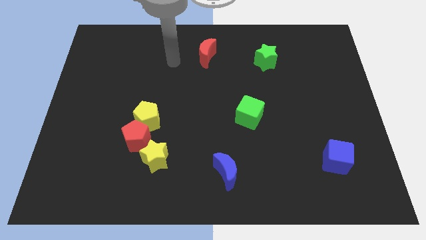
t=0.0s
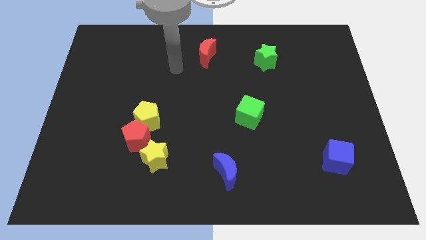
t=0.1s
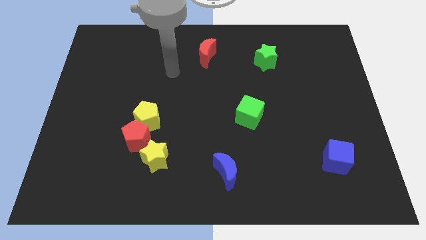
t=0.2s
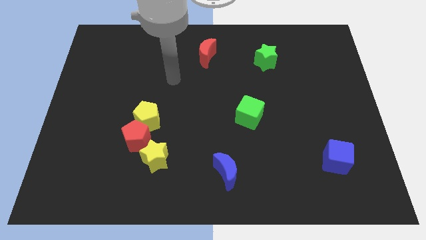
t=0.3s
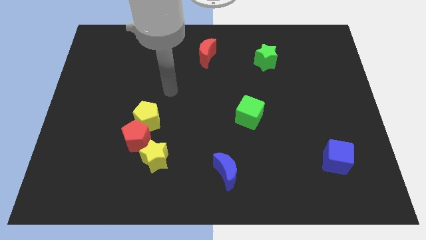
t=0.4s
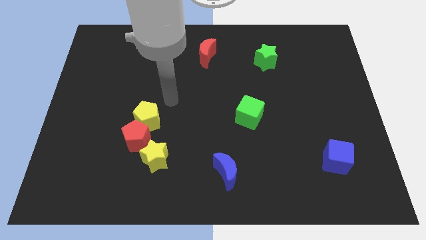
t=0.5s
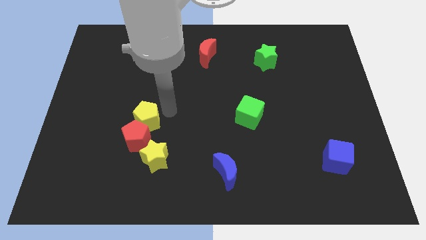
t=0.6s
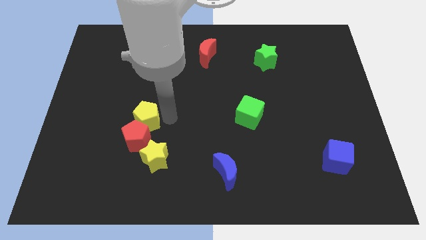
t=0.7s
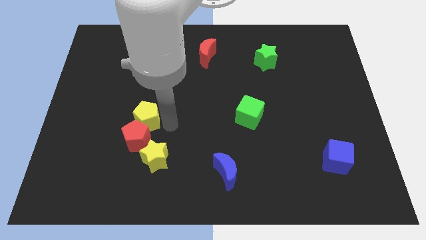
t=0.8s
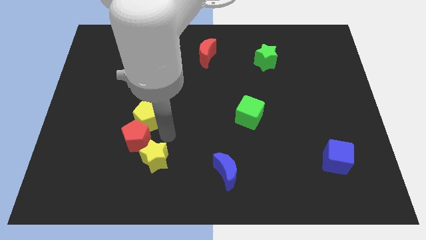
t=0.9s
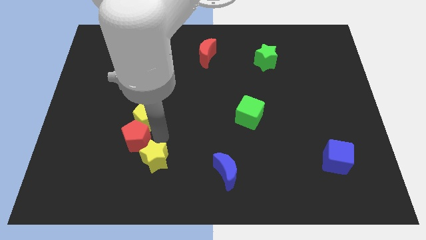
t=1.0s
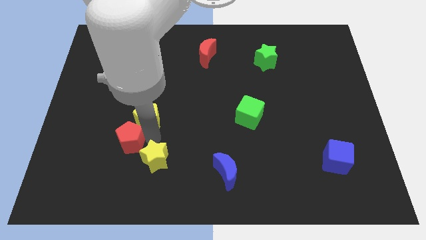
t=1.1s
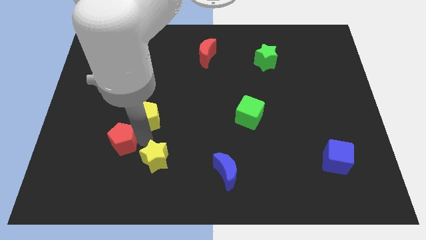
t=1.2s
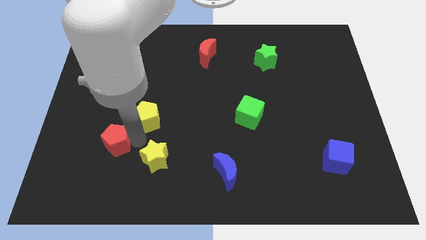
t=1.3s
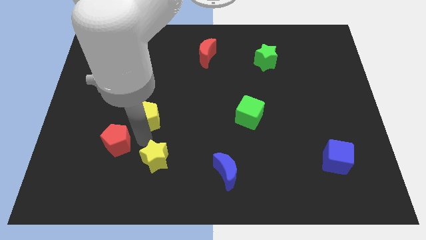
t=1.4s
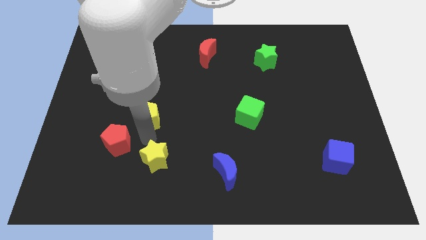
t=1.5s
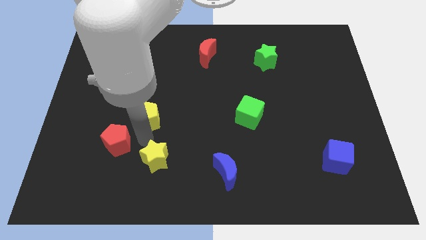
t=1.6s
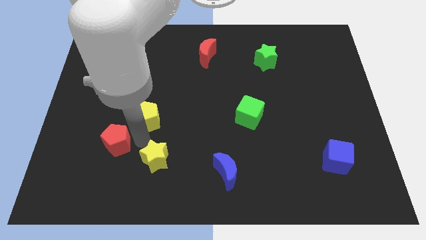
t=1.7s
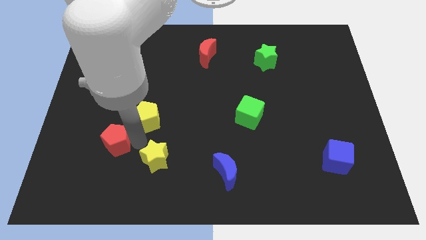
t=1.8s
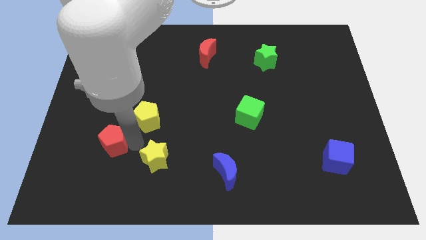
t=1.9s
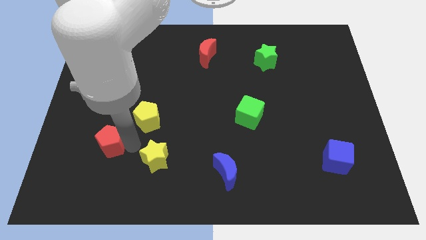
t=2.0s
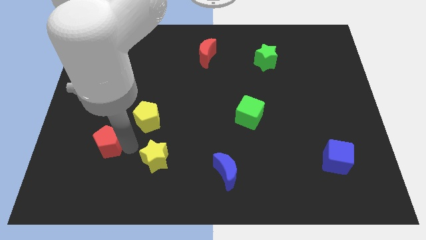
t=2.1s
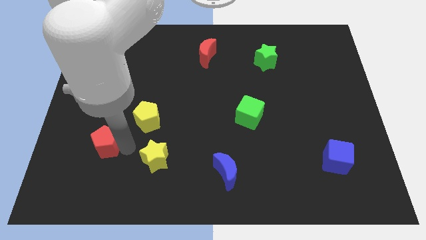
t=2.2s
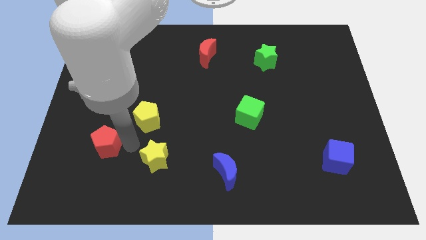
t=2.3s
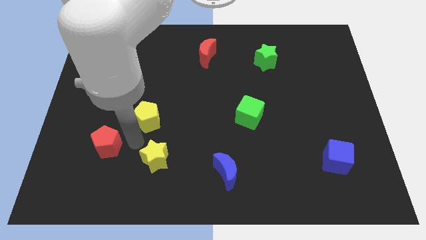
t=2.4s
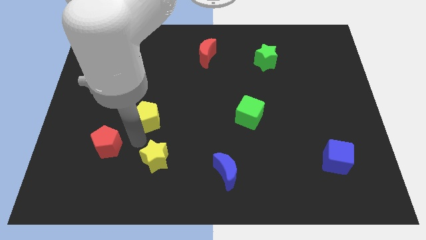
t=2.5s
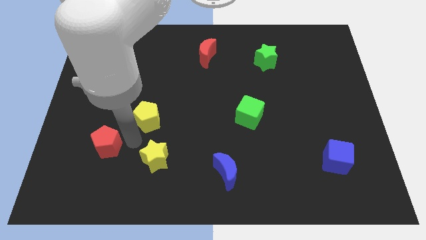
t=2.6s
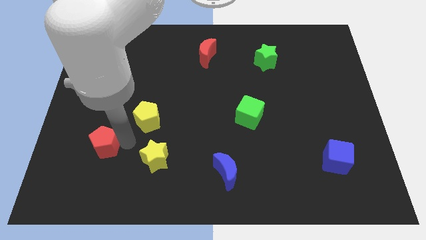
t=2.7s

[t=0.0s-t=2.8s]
move the red pentagon away from the yellow pentagon and yellow star

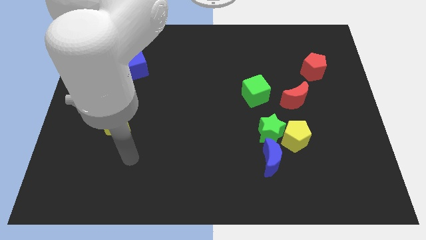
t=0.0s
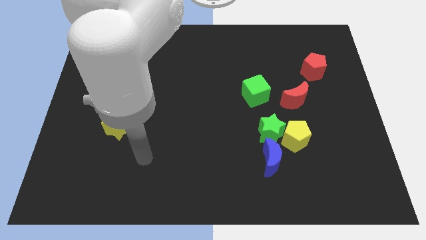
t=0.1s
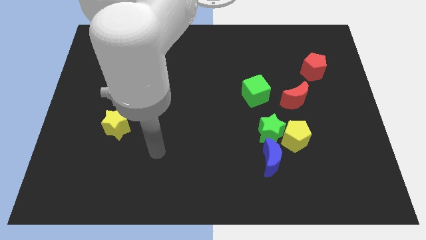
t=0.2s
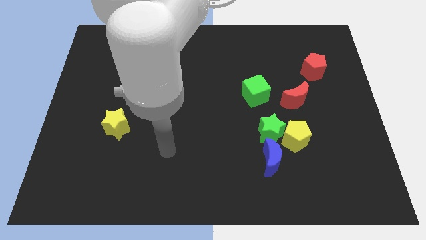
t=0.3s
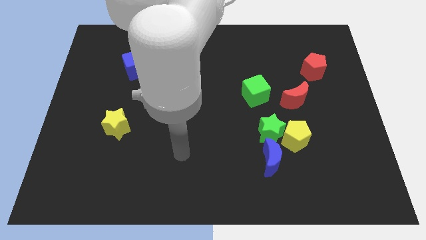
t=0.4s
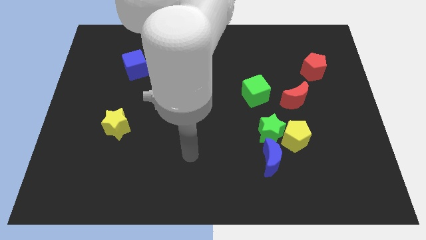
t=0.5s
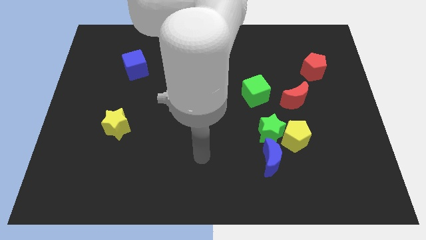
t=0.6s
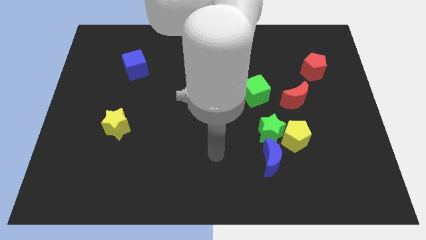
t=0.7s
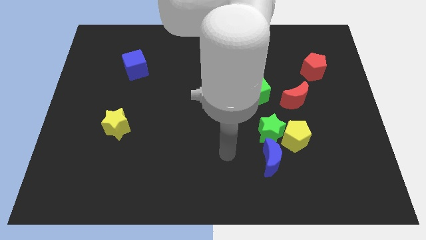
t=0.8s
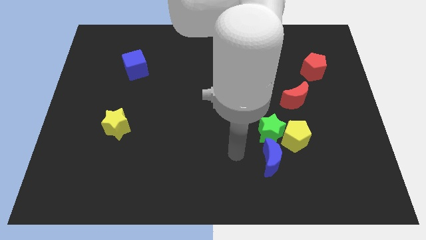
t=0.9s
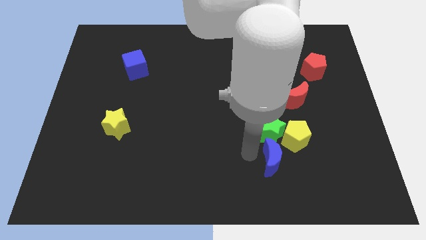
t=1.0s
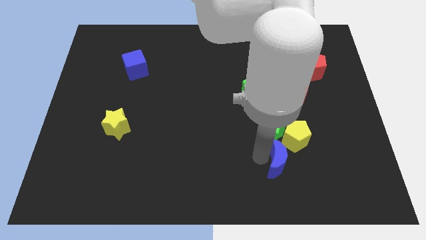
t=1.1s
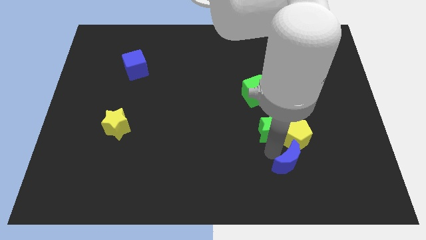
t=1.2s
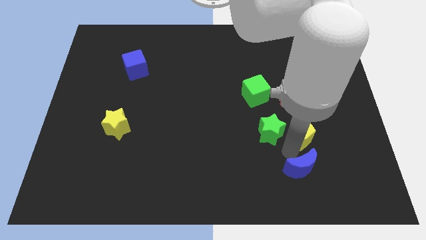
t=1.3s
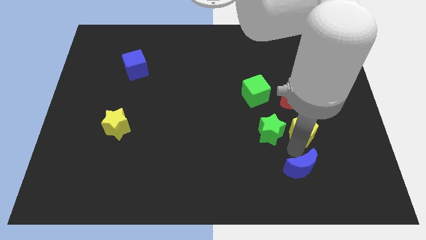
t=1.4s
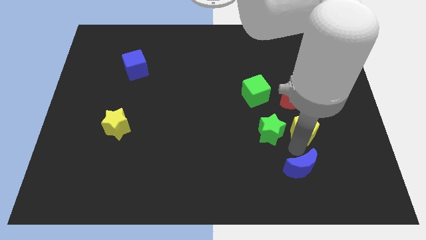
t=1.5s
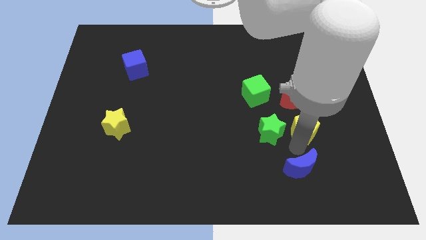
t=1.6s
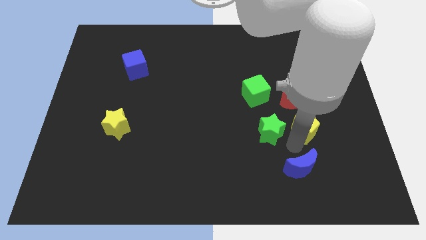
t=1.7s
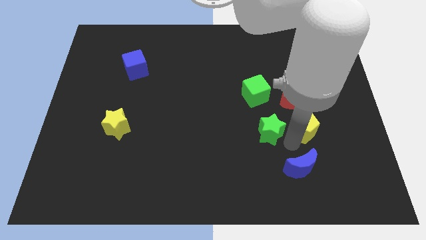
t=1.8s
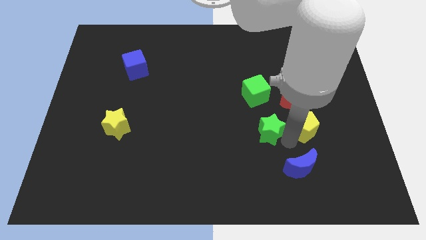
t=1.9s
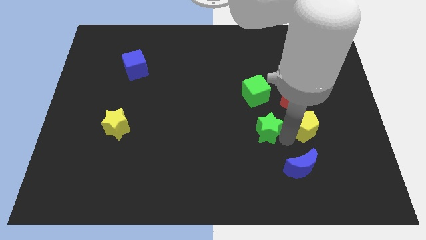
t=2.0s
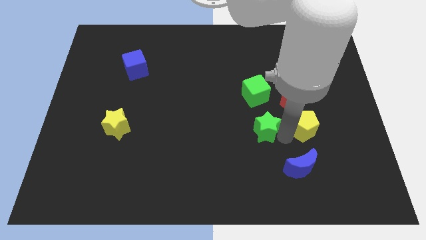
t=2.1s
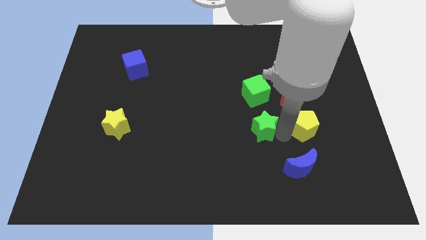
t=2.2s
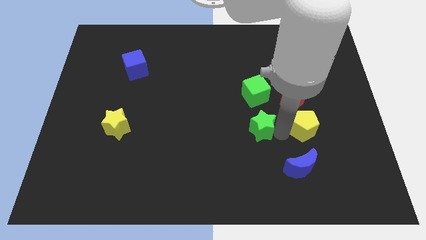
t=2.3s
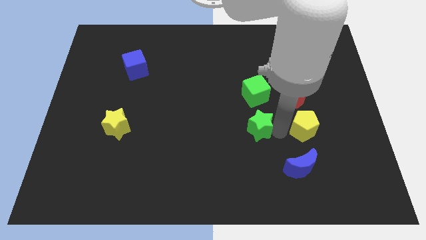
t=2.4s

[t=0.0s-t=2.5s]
separate the green star from the yellow pentagon and blue moon

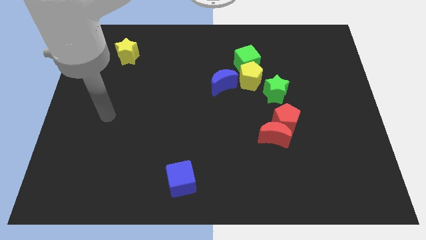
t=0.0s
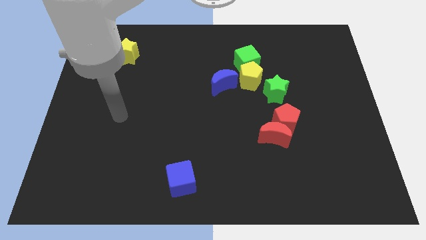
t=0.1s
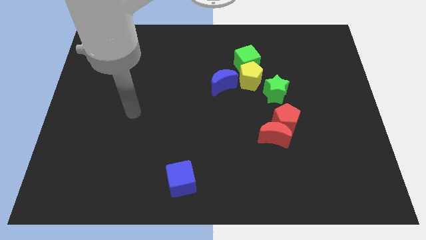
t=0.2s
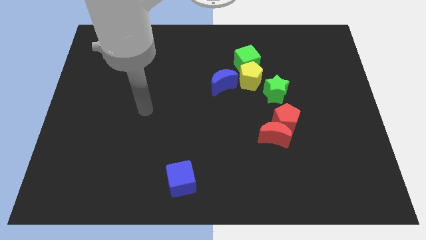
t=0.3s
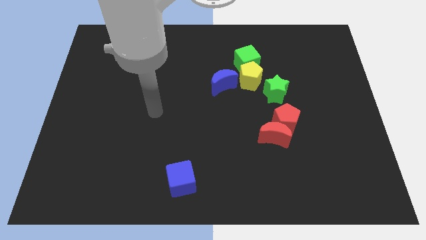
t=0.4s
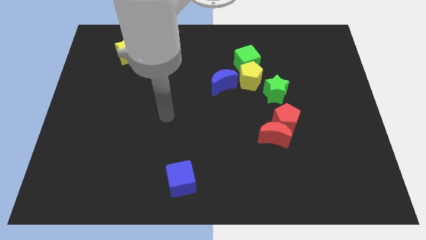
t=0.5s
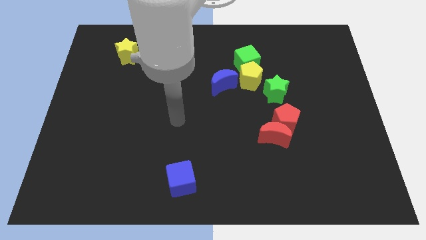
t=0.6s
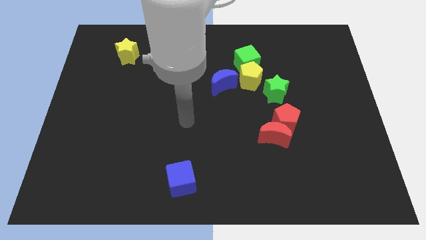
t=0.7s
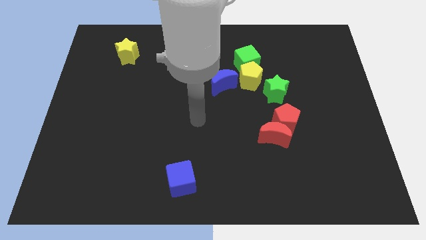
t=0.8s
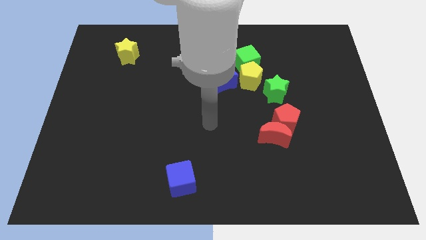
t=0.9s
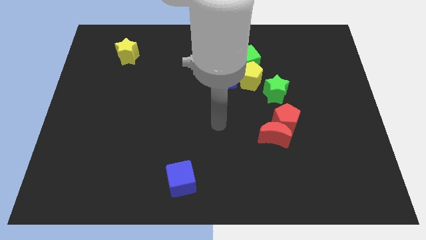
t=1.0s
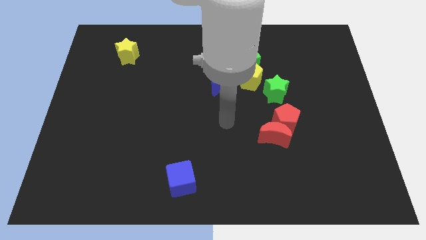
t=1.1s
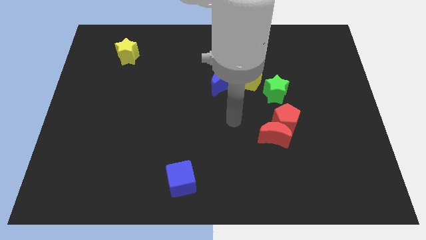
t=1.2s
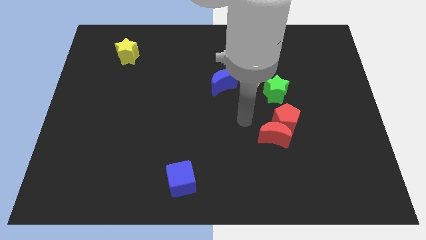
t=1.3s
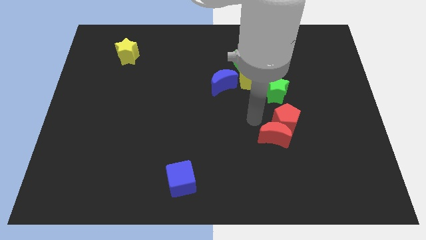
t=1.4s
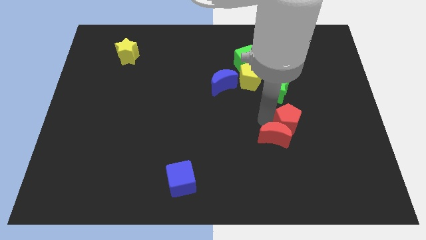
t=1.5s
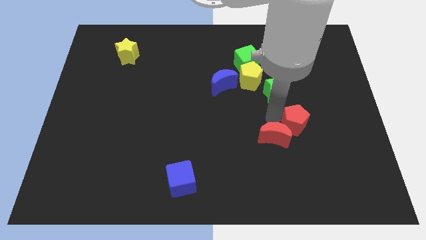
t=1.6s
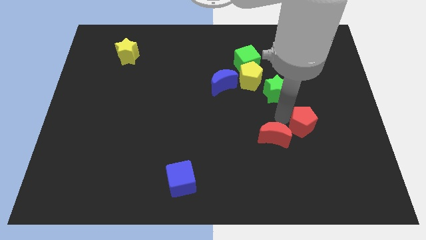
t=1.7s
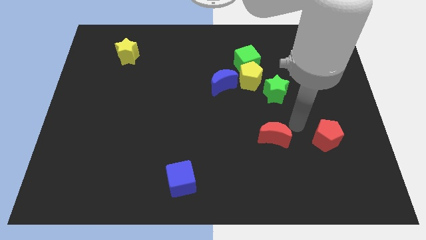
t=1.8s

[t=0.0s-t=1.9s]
move the red moon away from the red pentagon

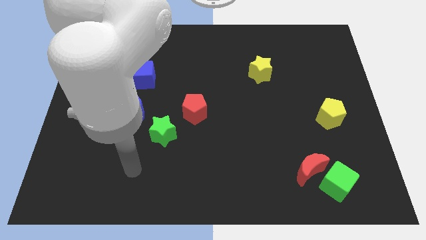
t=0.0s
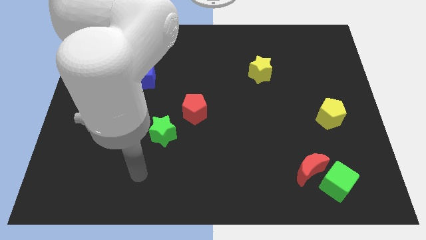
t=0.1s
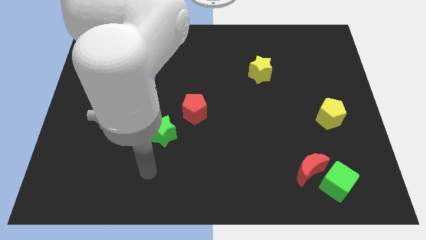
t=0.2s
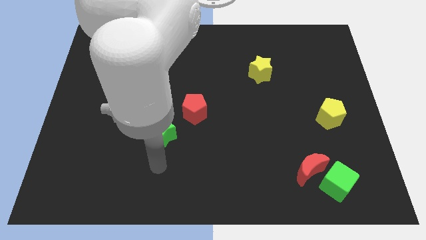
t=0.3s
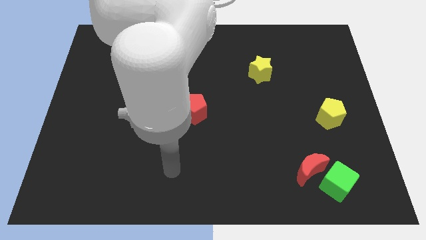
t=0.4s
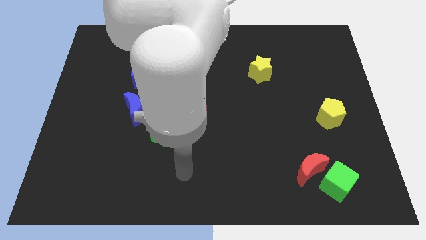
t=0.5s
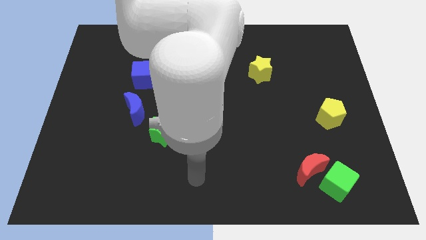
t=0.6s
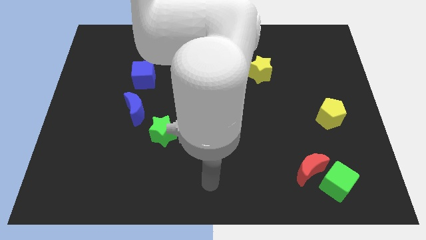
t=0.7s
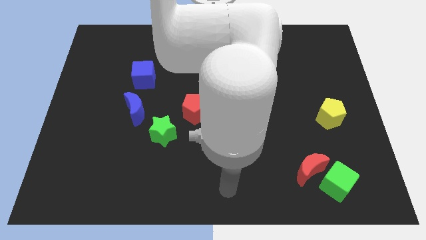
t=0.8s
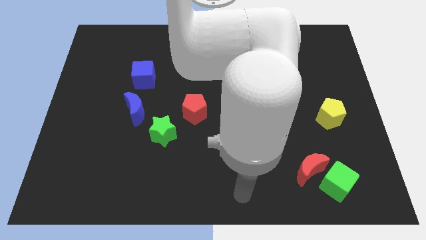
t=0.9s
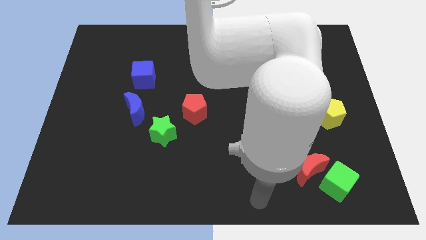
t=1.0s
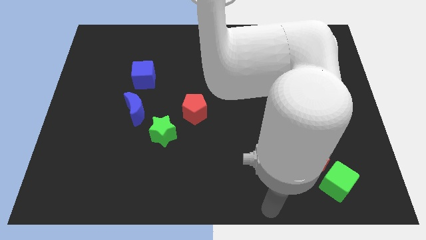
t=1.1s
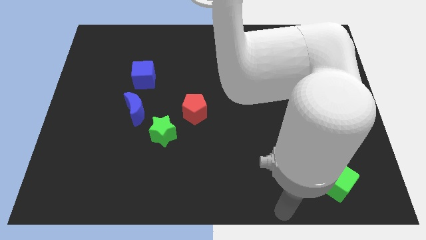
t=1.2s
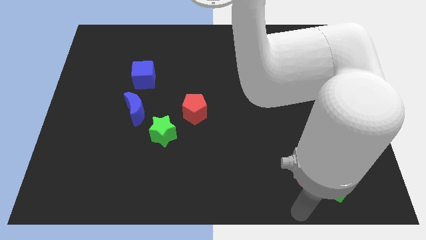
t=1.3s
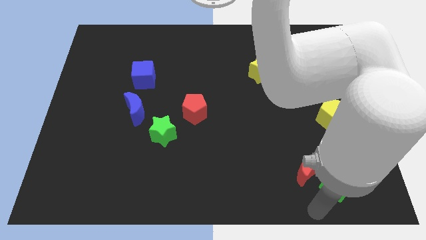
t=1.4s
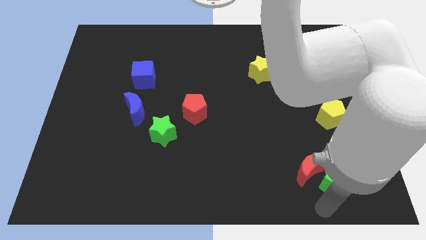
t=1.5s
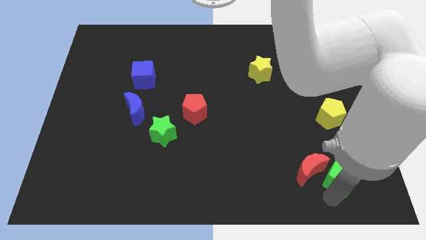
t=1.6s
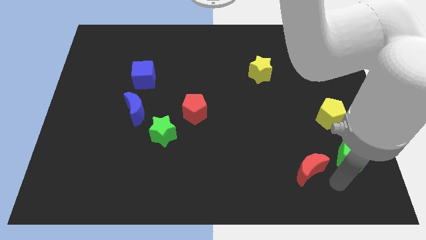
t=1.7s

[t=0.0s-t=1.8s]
move the red moon away from the green cube

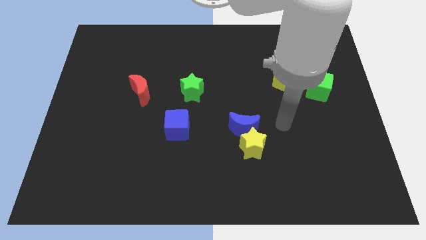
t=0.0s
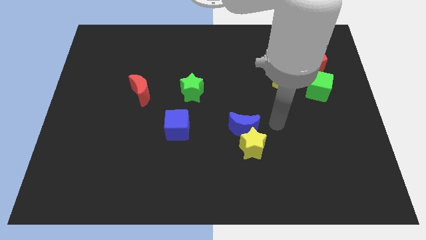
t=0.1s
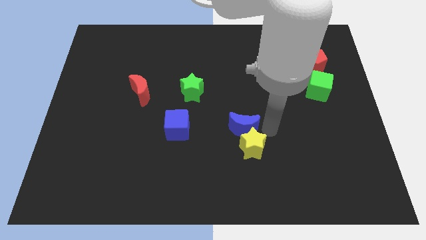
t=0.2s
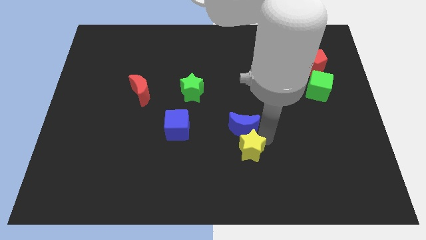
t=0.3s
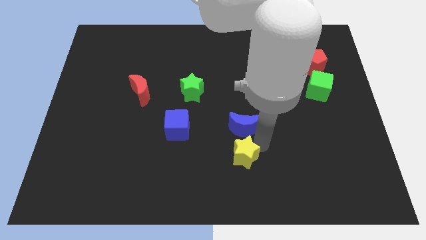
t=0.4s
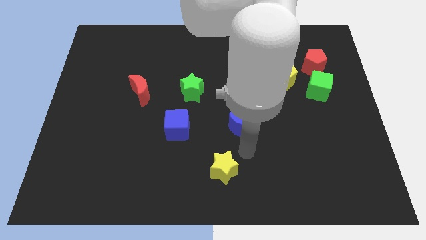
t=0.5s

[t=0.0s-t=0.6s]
move the blue moon away from the yellow star
